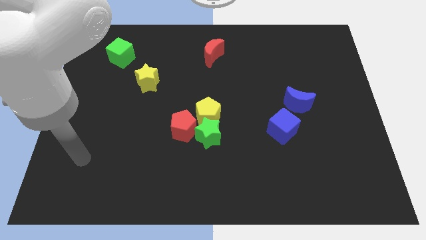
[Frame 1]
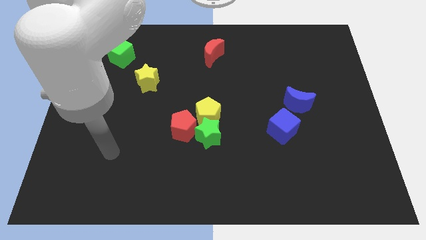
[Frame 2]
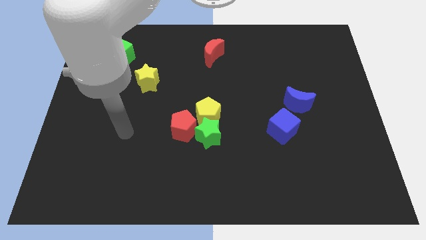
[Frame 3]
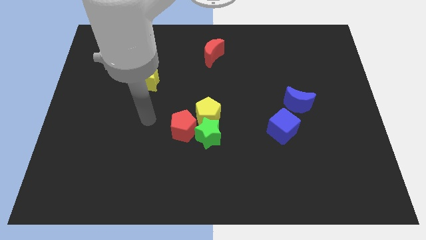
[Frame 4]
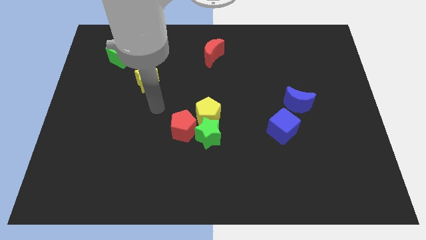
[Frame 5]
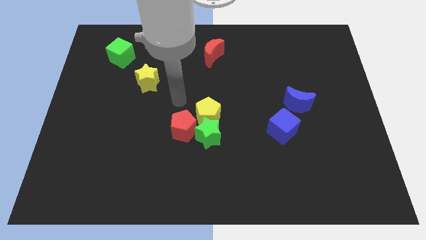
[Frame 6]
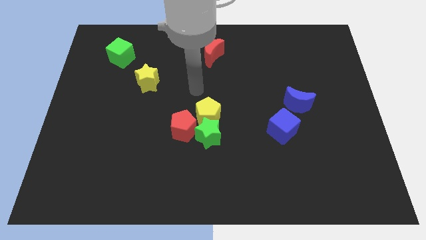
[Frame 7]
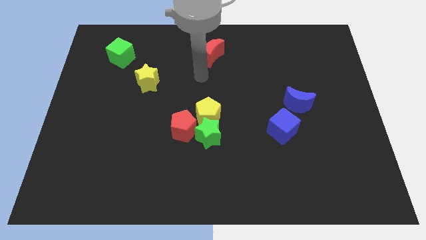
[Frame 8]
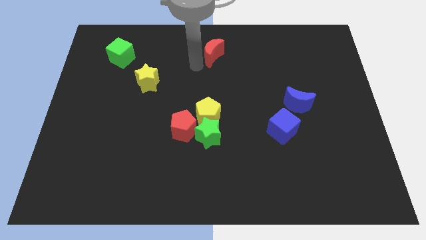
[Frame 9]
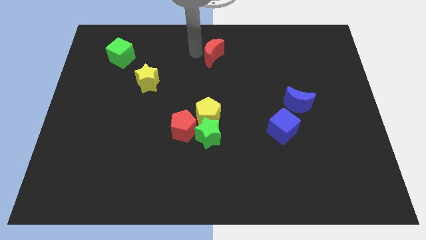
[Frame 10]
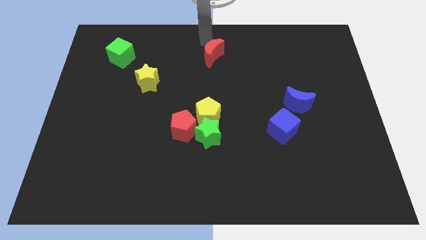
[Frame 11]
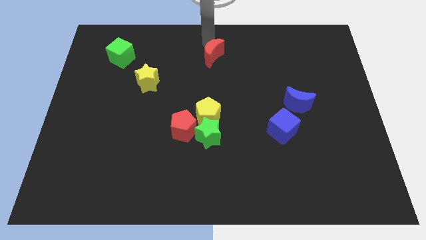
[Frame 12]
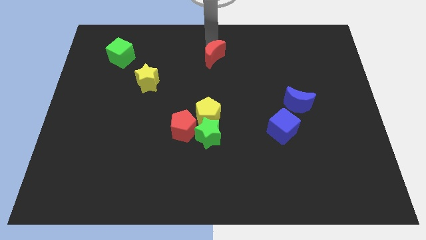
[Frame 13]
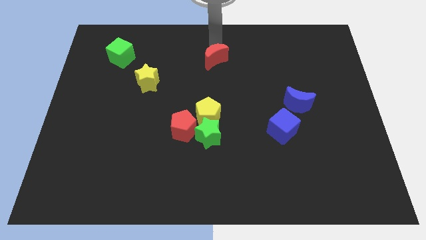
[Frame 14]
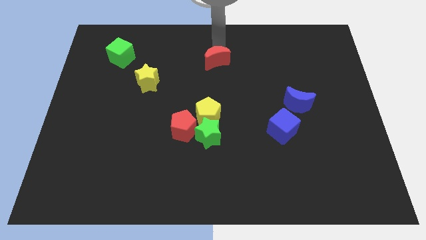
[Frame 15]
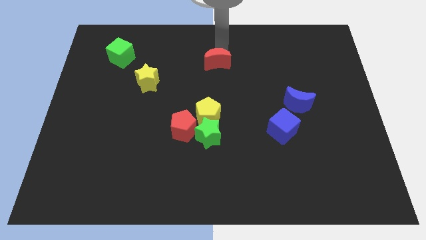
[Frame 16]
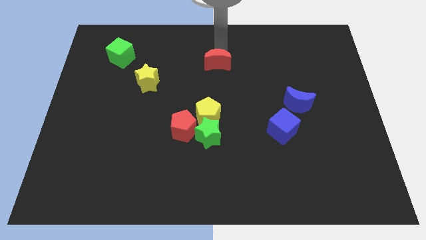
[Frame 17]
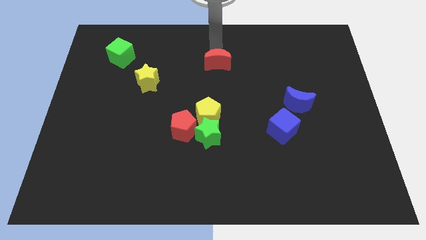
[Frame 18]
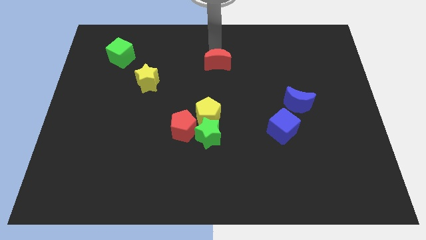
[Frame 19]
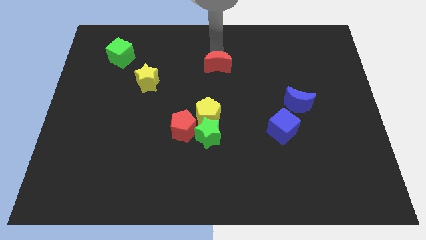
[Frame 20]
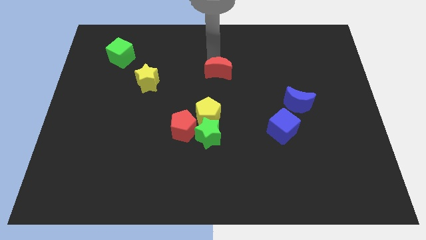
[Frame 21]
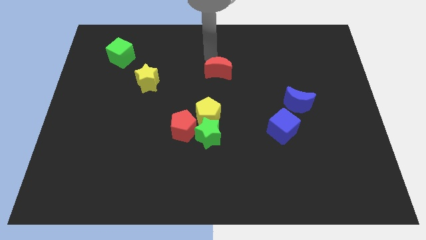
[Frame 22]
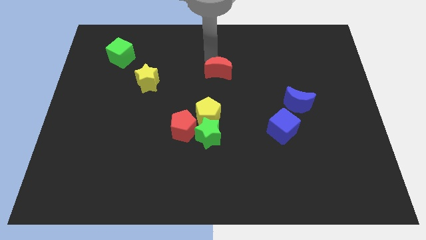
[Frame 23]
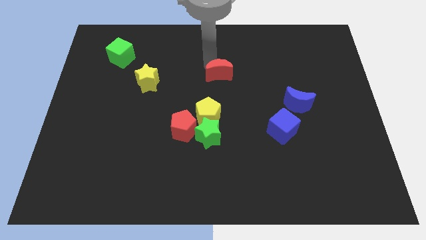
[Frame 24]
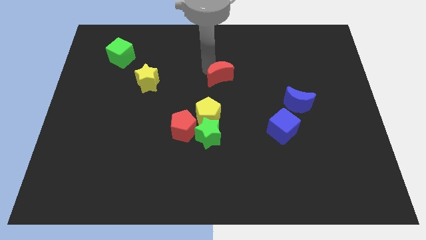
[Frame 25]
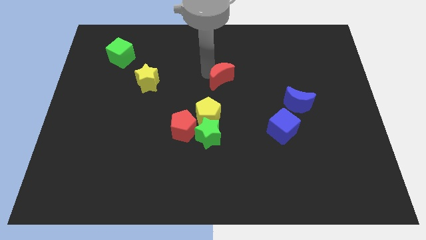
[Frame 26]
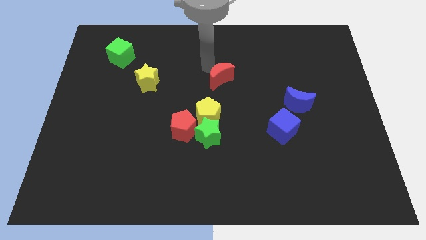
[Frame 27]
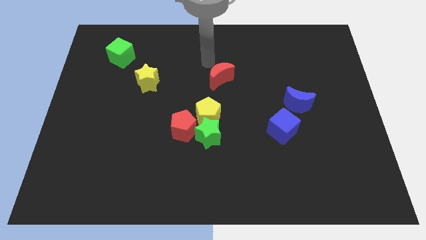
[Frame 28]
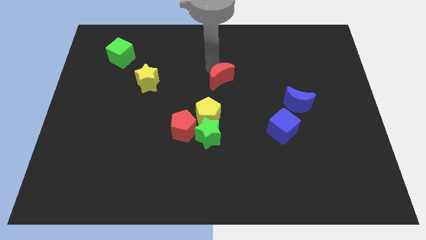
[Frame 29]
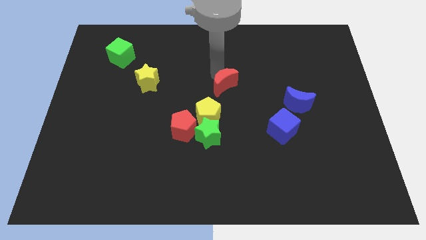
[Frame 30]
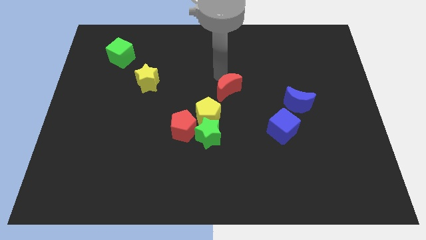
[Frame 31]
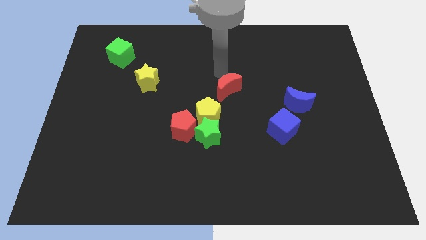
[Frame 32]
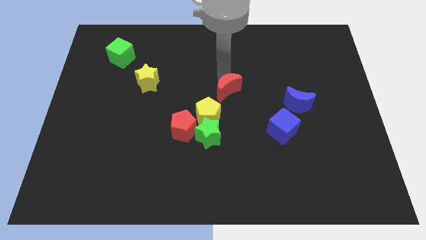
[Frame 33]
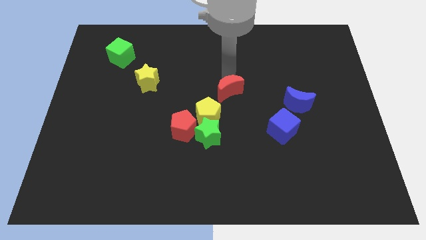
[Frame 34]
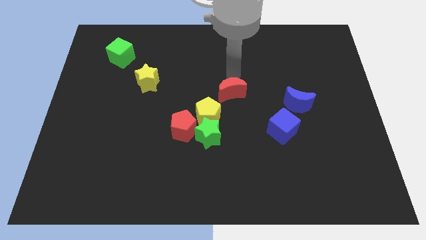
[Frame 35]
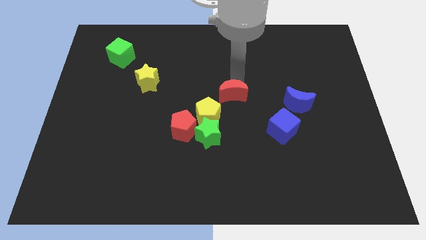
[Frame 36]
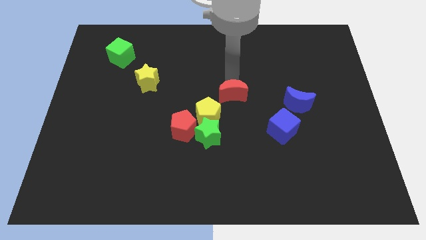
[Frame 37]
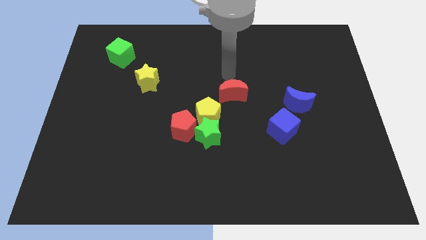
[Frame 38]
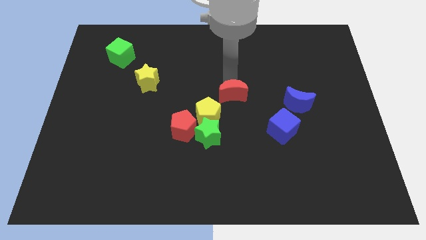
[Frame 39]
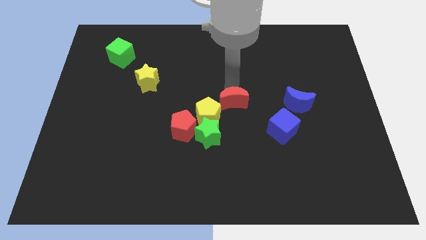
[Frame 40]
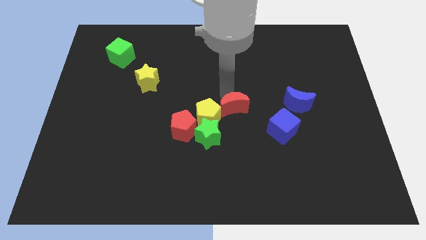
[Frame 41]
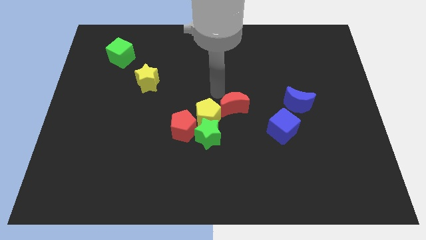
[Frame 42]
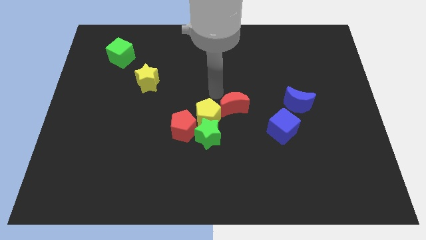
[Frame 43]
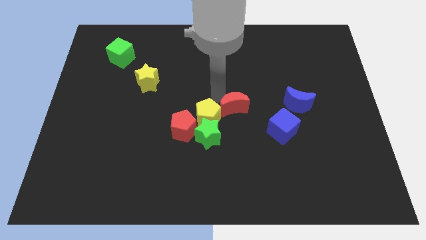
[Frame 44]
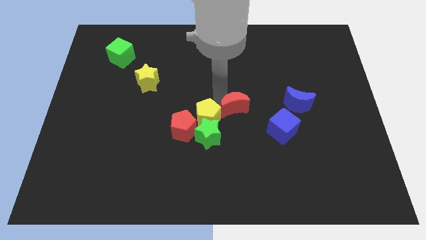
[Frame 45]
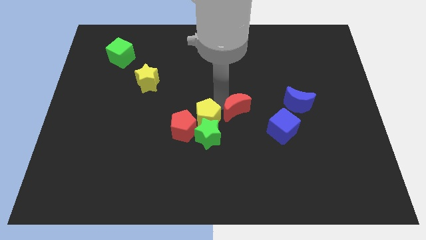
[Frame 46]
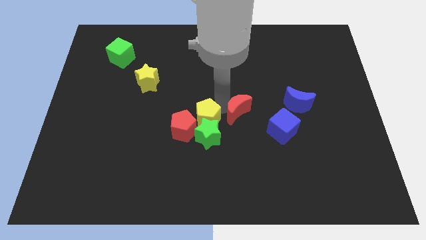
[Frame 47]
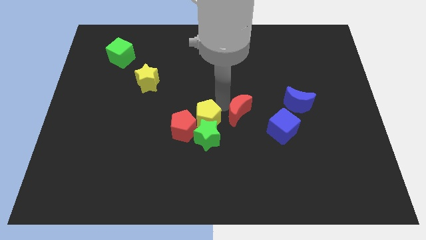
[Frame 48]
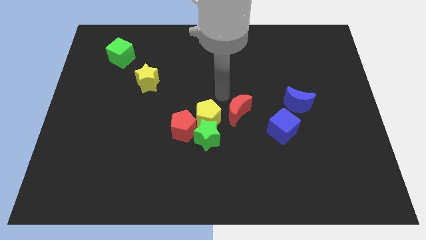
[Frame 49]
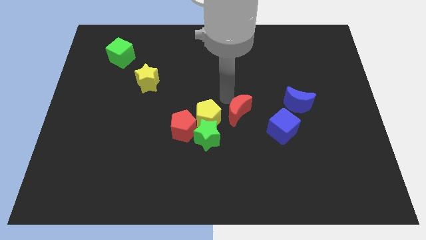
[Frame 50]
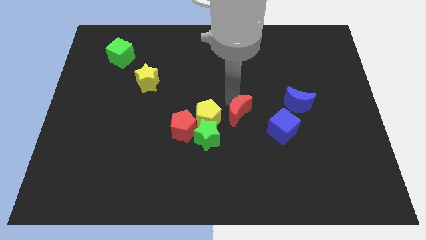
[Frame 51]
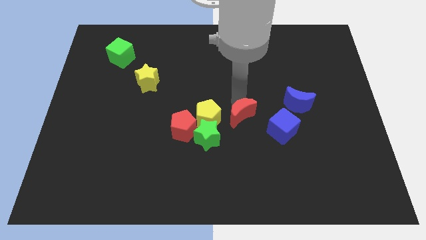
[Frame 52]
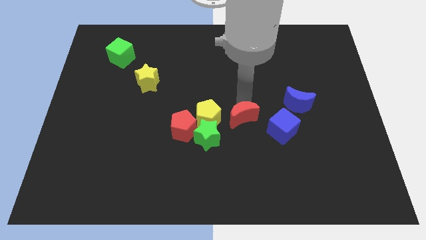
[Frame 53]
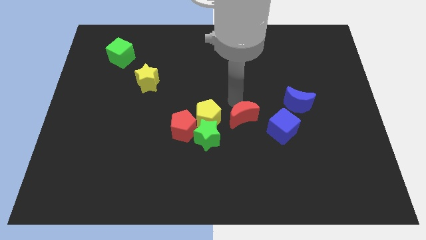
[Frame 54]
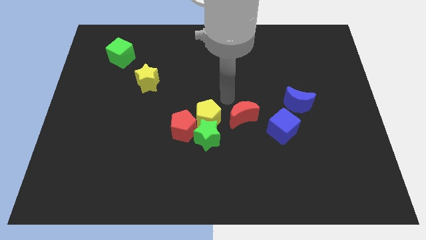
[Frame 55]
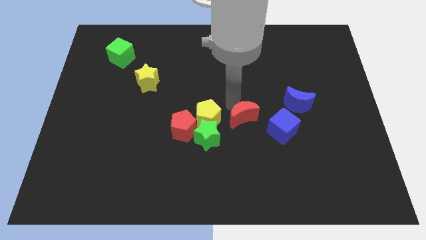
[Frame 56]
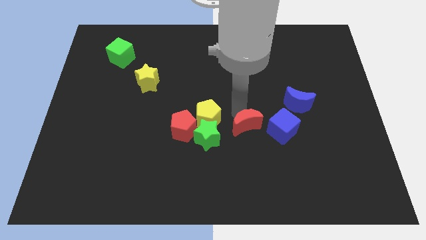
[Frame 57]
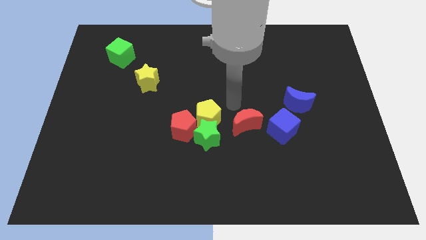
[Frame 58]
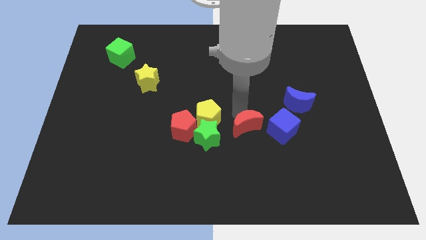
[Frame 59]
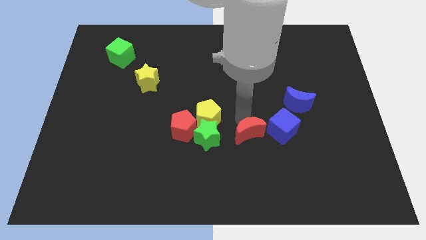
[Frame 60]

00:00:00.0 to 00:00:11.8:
move the red moon to the bottom left side of the blue cube

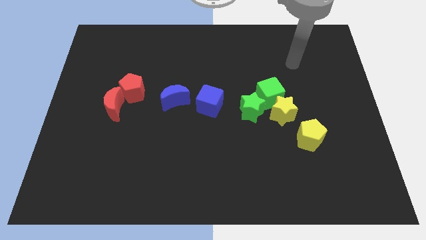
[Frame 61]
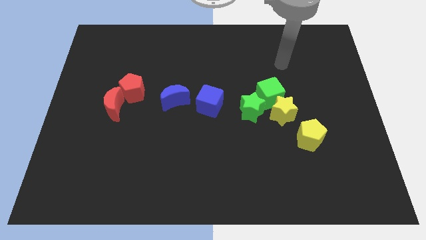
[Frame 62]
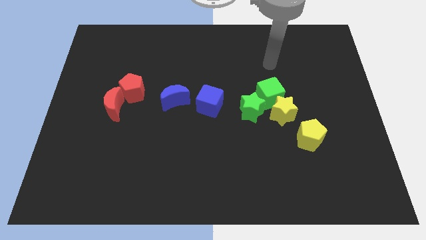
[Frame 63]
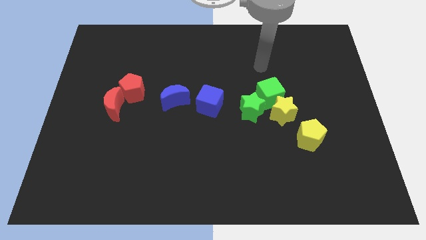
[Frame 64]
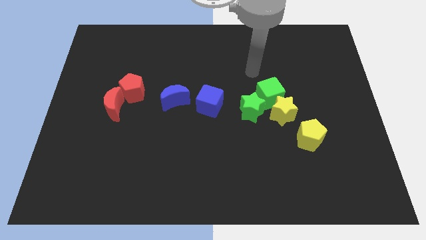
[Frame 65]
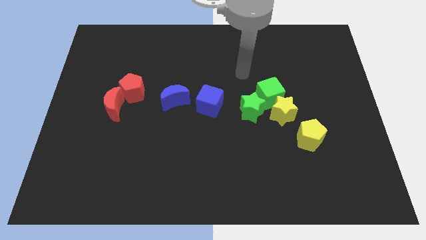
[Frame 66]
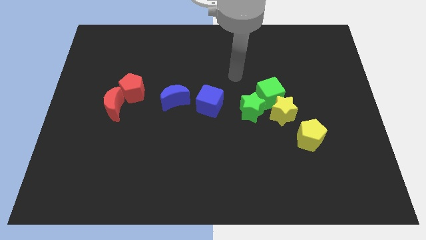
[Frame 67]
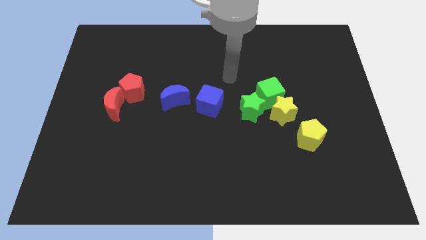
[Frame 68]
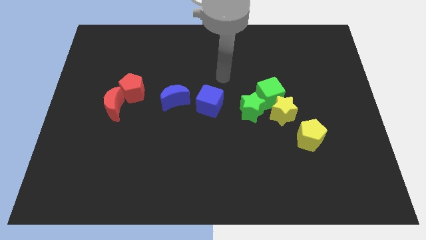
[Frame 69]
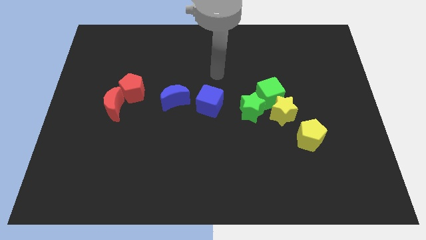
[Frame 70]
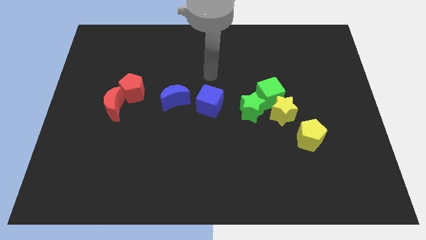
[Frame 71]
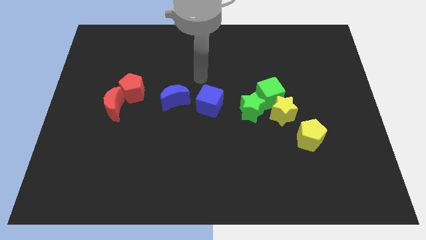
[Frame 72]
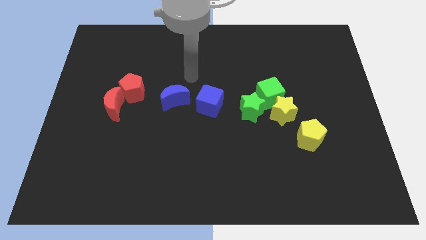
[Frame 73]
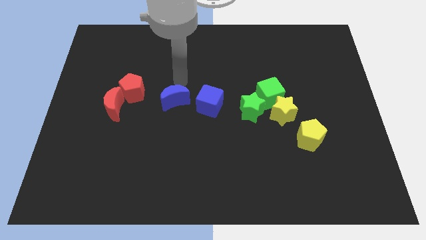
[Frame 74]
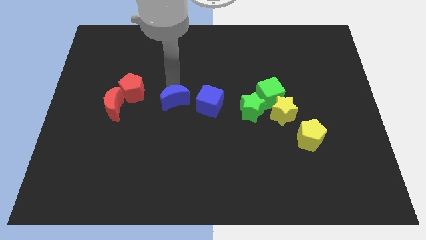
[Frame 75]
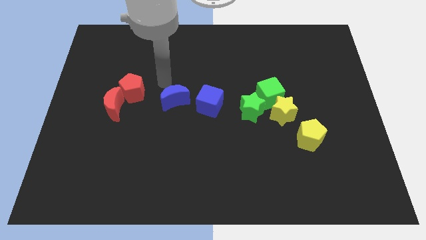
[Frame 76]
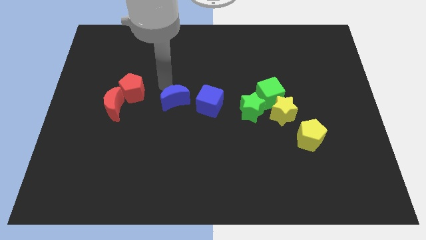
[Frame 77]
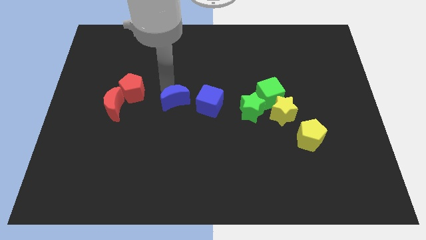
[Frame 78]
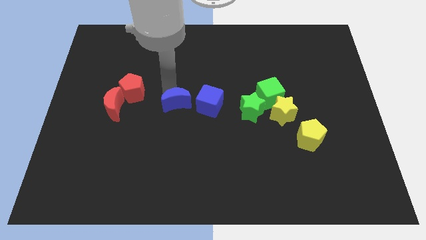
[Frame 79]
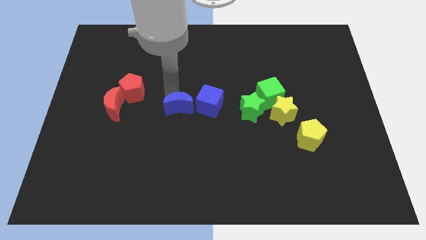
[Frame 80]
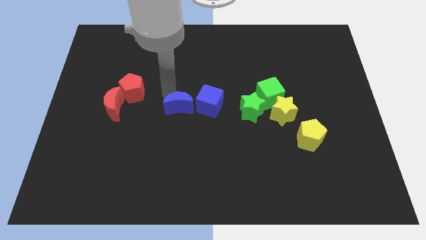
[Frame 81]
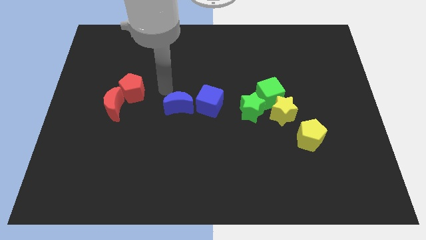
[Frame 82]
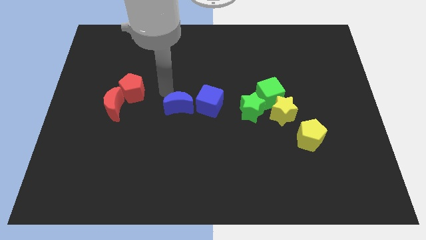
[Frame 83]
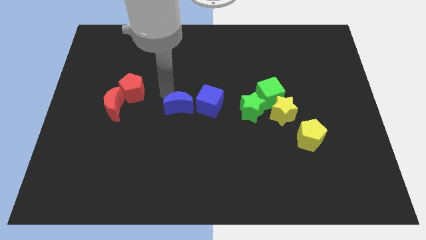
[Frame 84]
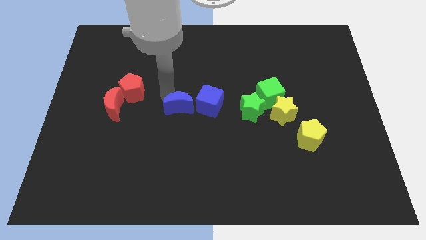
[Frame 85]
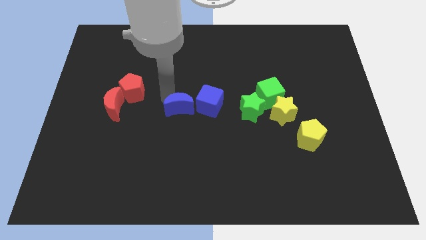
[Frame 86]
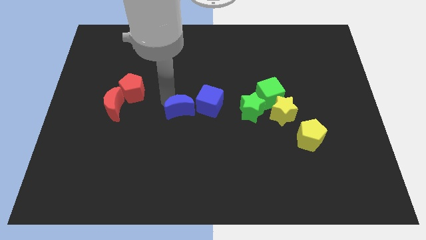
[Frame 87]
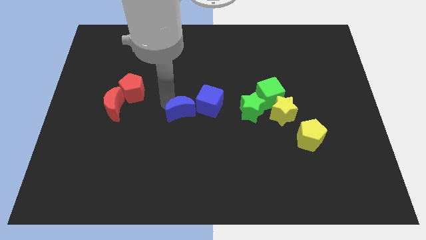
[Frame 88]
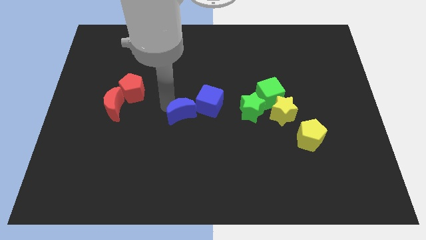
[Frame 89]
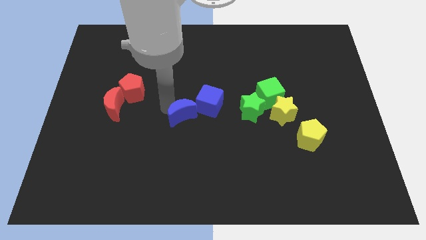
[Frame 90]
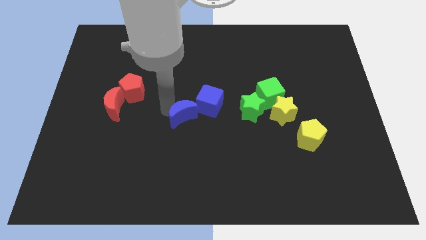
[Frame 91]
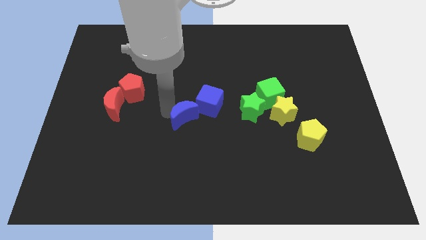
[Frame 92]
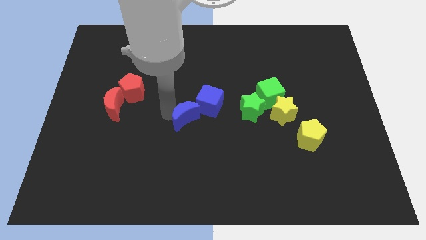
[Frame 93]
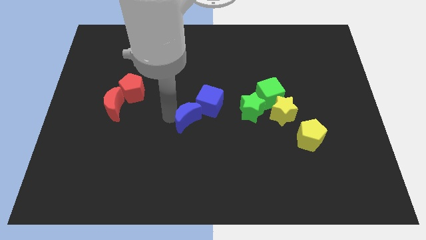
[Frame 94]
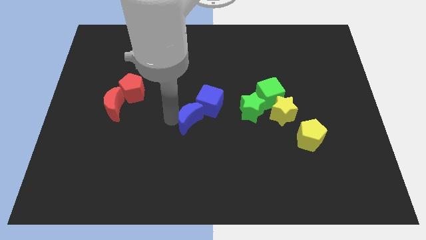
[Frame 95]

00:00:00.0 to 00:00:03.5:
put the blue moon to the bottom of the blue cube
